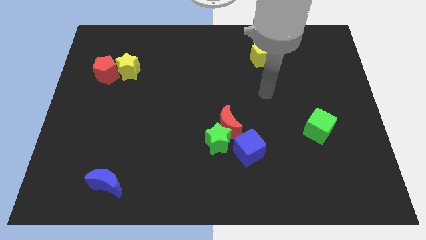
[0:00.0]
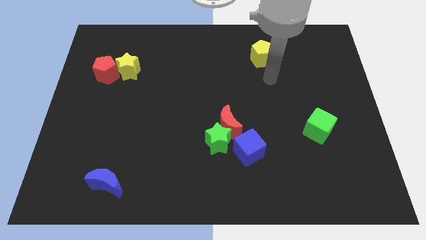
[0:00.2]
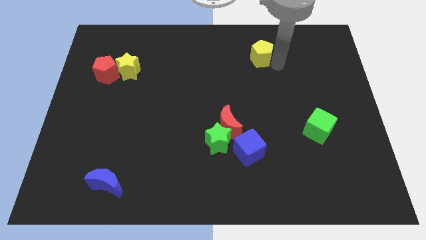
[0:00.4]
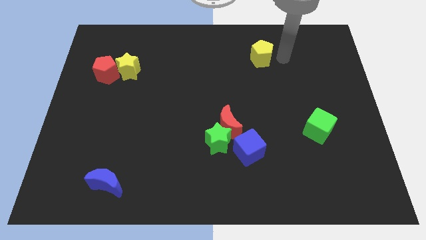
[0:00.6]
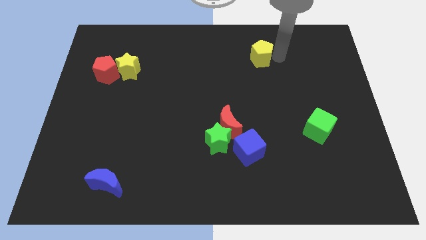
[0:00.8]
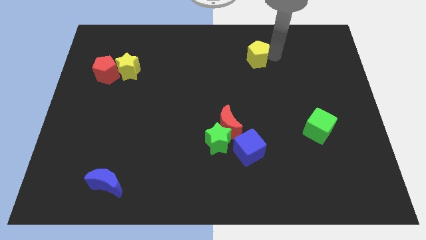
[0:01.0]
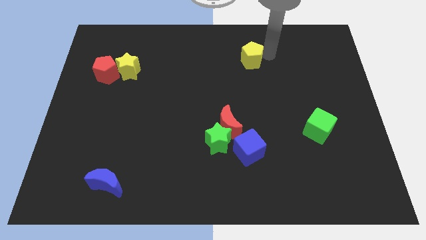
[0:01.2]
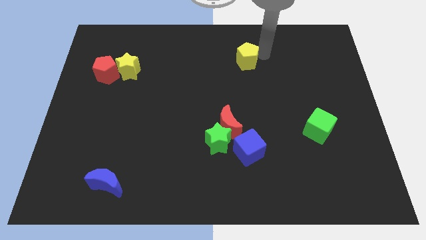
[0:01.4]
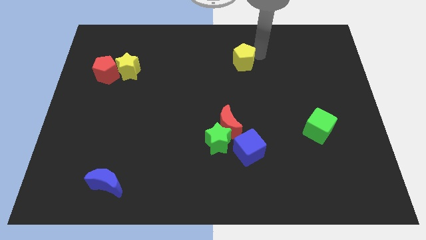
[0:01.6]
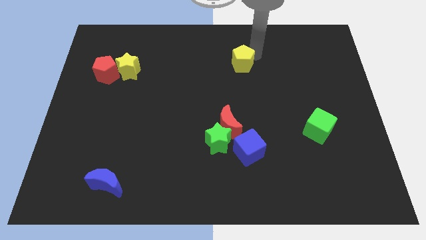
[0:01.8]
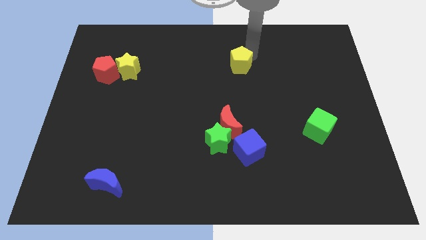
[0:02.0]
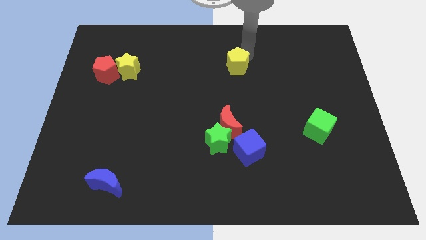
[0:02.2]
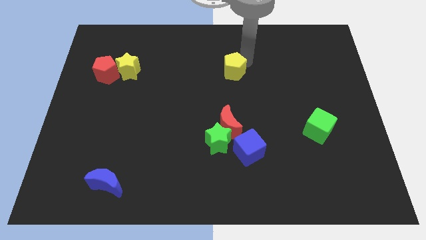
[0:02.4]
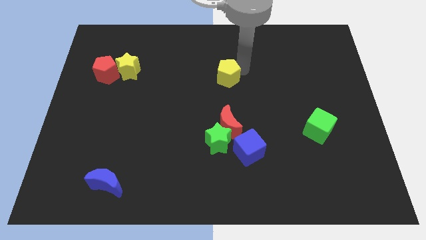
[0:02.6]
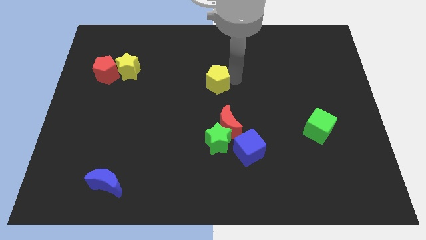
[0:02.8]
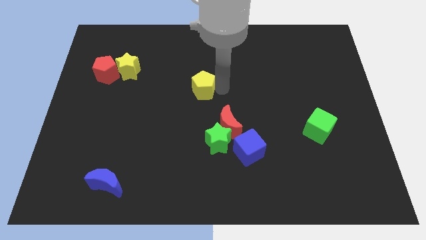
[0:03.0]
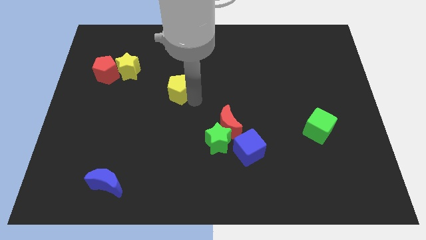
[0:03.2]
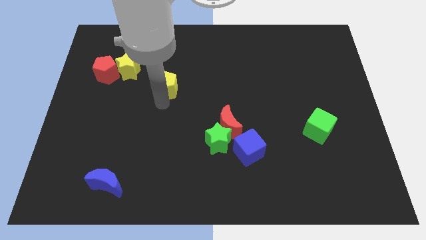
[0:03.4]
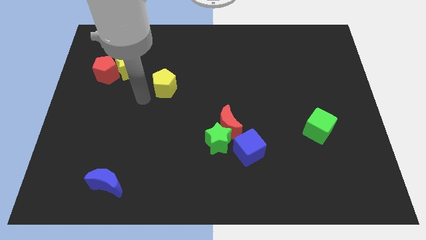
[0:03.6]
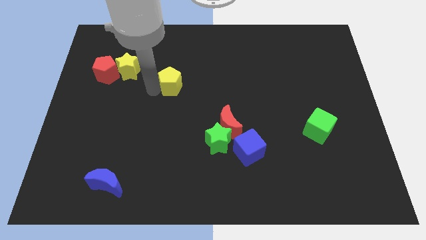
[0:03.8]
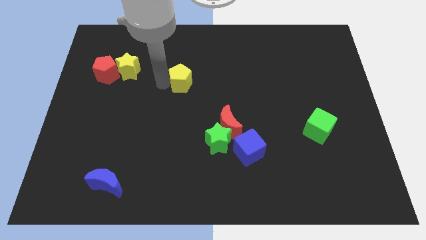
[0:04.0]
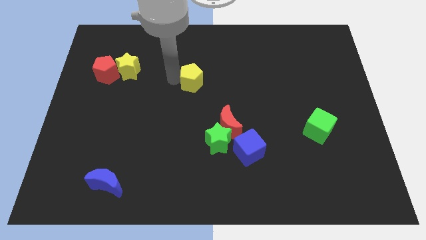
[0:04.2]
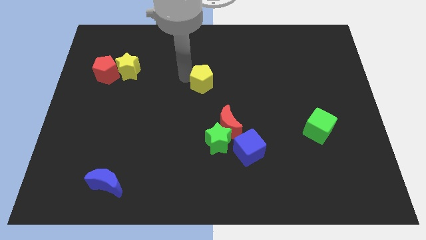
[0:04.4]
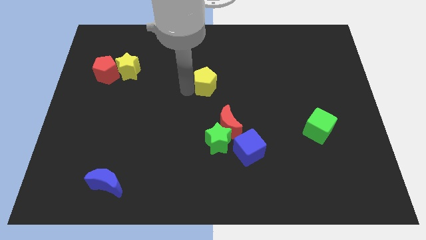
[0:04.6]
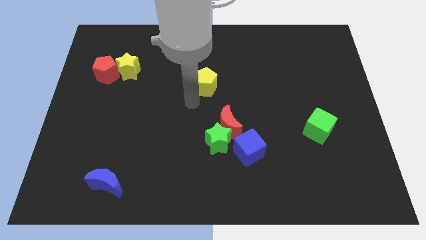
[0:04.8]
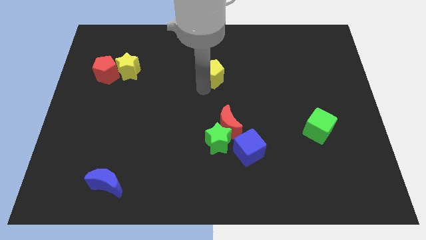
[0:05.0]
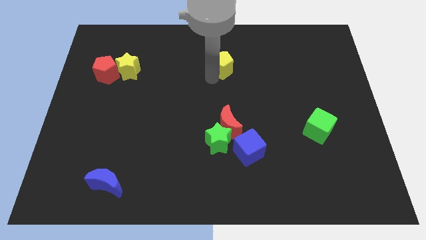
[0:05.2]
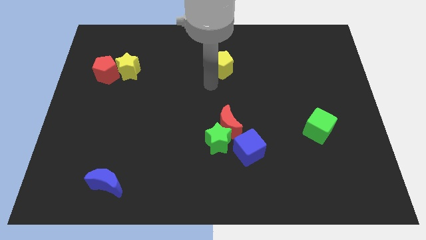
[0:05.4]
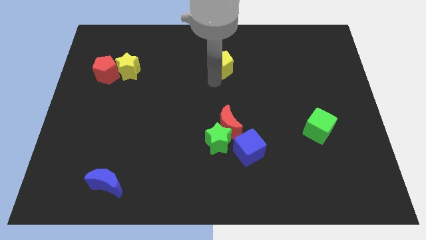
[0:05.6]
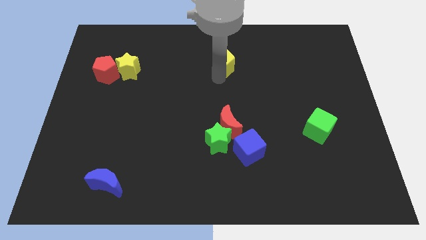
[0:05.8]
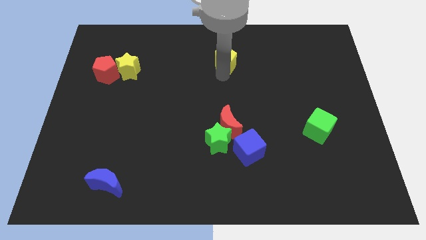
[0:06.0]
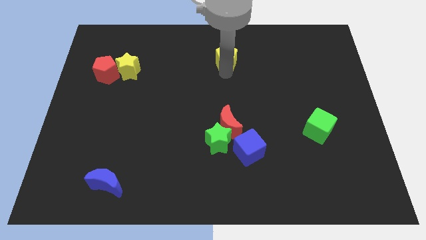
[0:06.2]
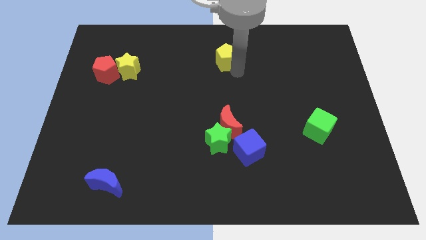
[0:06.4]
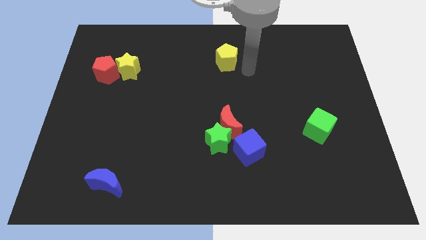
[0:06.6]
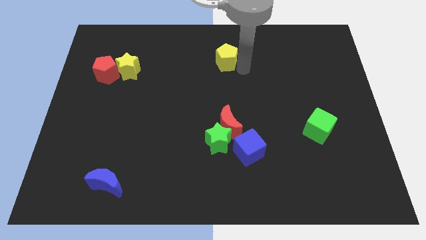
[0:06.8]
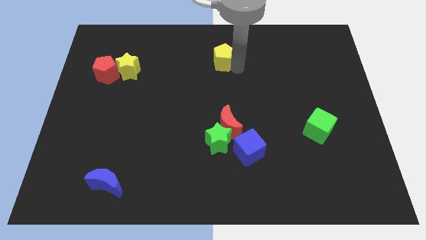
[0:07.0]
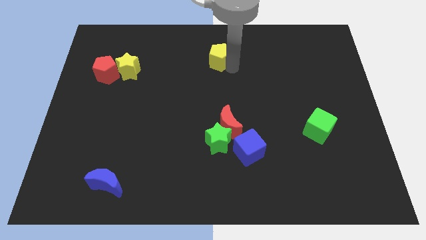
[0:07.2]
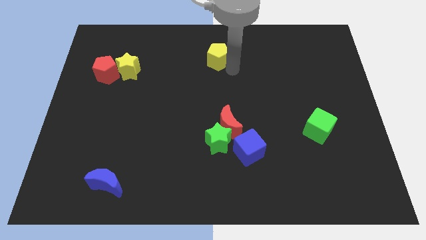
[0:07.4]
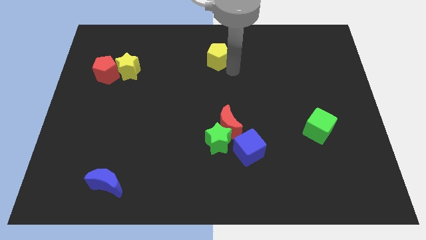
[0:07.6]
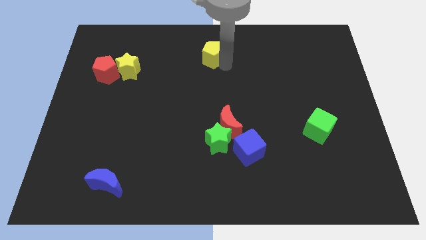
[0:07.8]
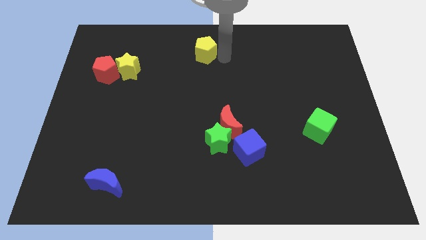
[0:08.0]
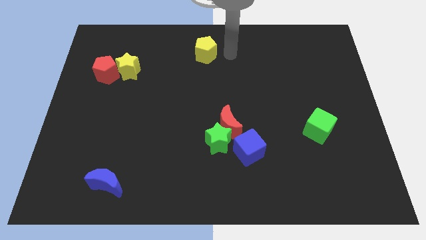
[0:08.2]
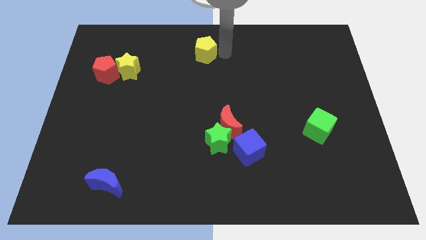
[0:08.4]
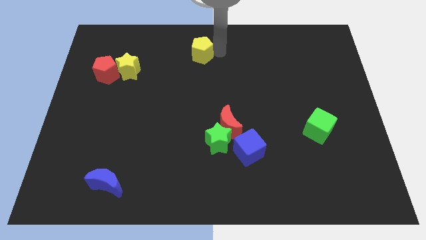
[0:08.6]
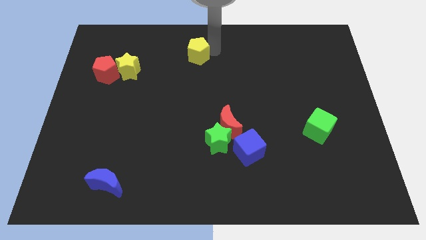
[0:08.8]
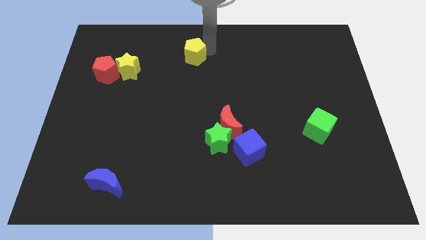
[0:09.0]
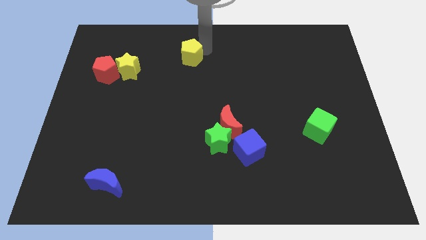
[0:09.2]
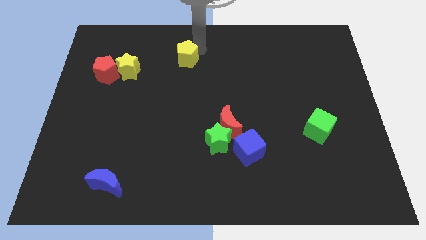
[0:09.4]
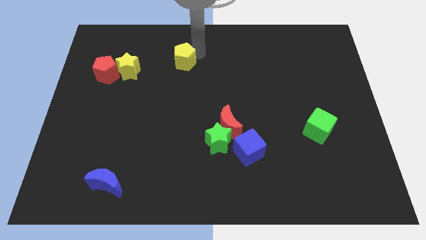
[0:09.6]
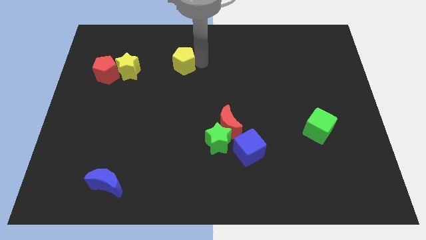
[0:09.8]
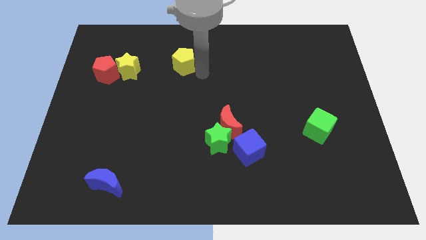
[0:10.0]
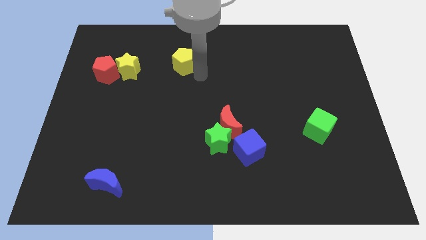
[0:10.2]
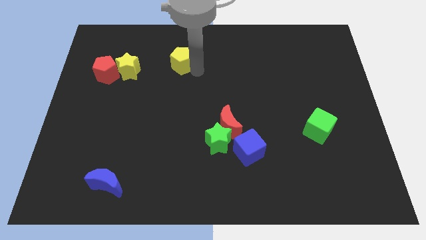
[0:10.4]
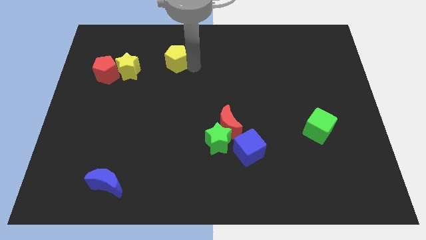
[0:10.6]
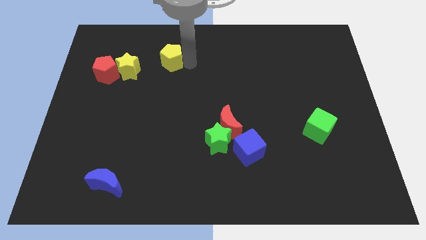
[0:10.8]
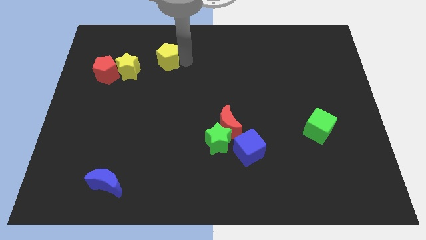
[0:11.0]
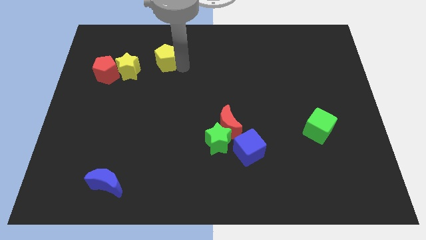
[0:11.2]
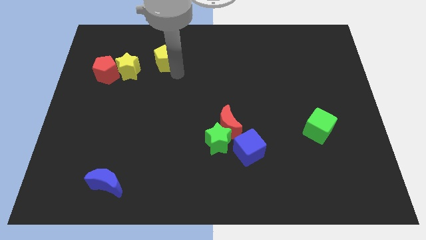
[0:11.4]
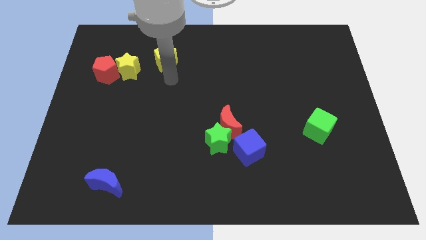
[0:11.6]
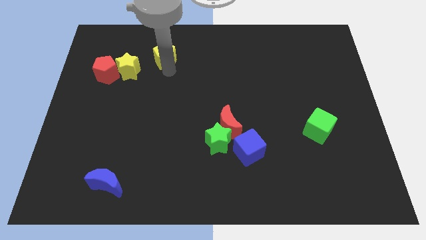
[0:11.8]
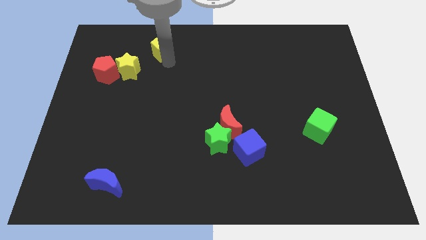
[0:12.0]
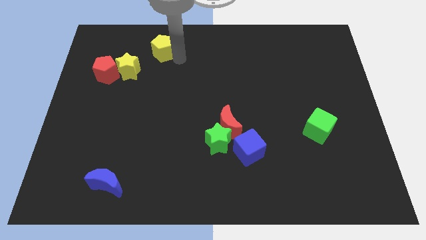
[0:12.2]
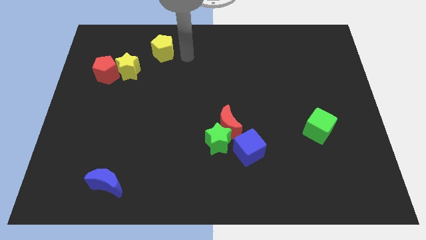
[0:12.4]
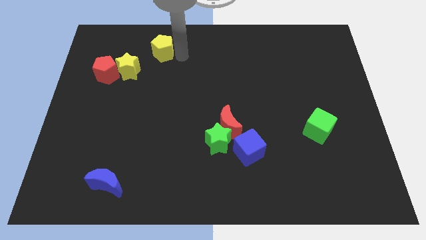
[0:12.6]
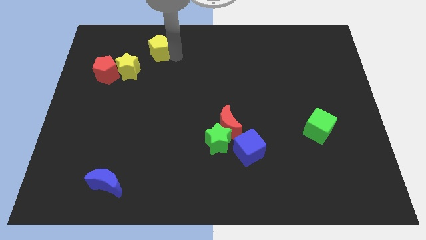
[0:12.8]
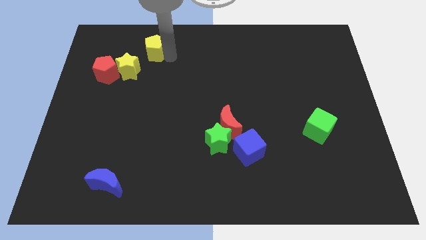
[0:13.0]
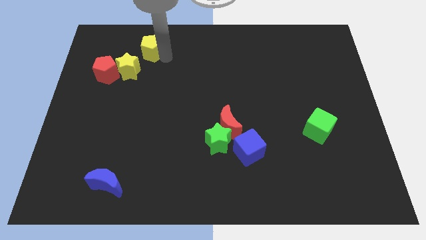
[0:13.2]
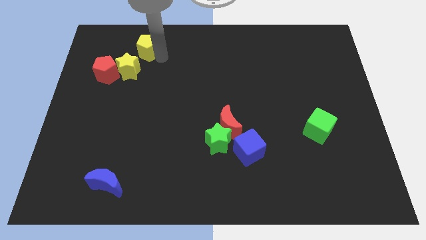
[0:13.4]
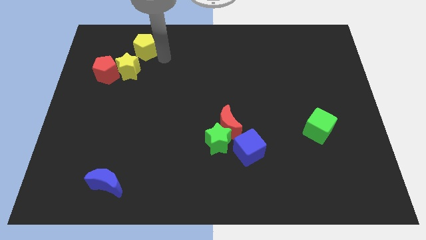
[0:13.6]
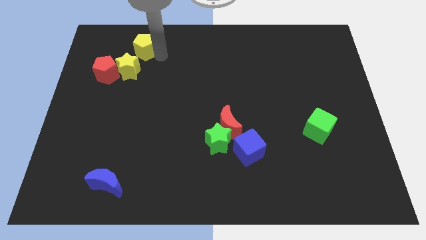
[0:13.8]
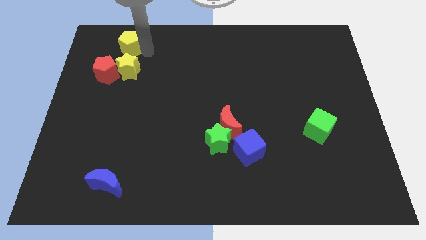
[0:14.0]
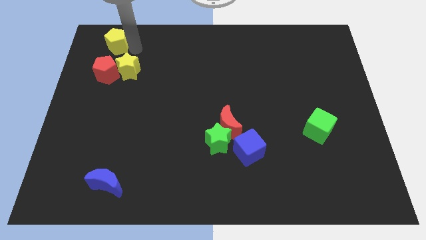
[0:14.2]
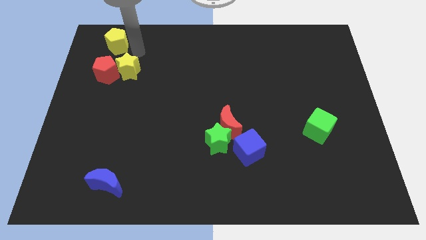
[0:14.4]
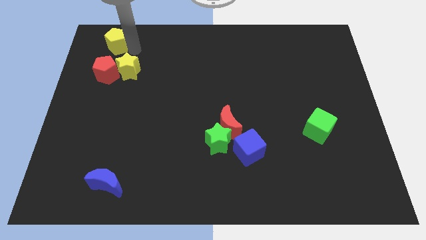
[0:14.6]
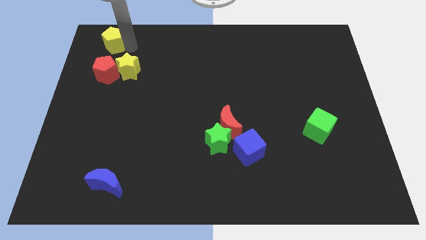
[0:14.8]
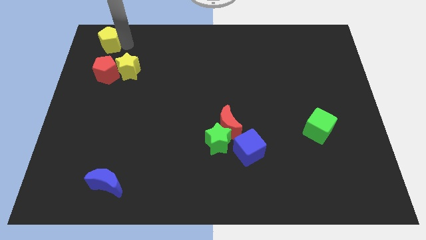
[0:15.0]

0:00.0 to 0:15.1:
put the yellow pentagon to the upper left corner
